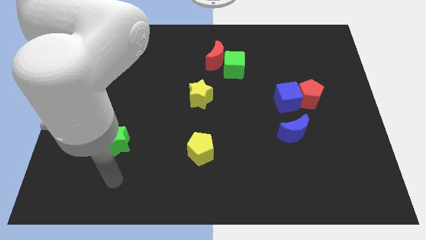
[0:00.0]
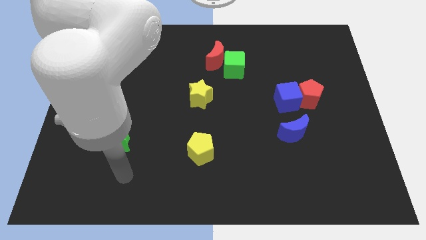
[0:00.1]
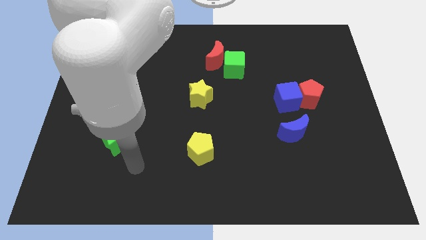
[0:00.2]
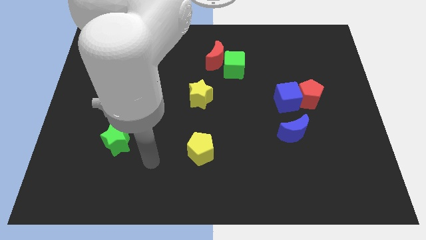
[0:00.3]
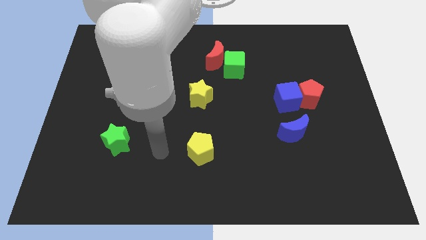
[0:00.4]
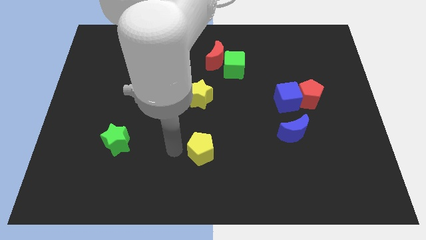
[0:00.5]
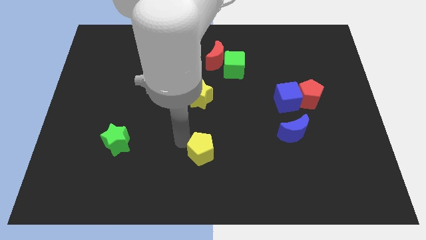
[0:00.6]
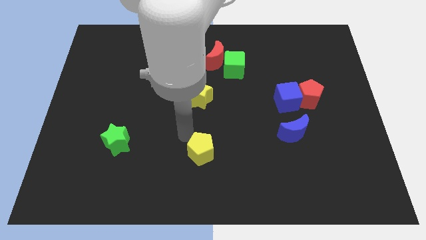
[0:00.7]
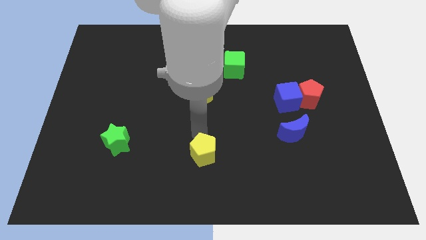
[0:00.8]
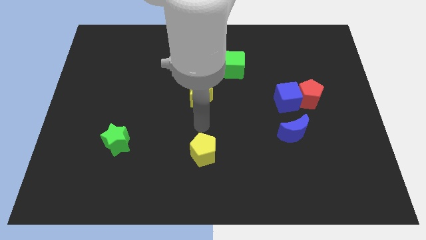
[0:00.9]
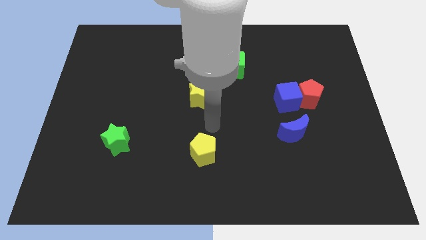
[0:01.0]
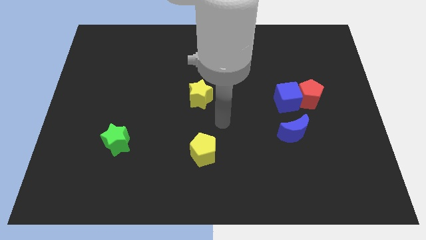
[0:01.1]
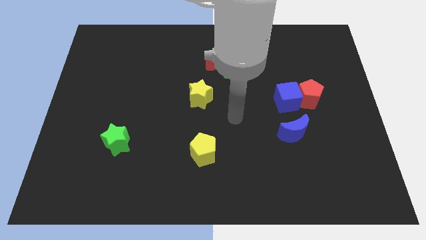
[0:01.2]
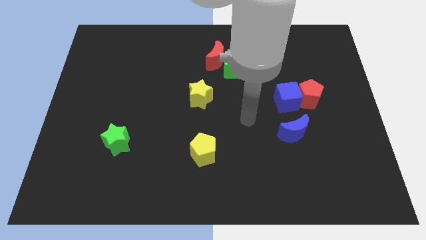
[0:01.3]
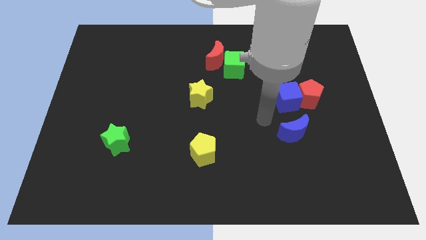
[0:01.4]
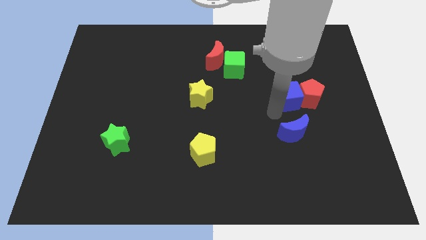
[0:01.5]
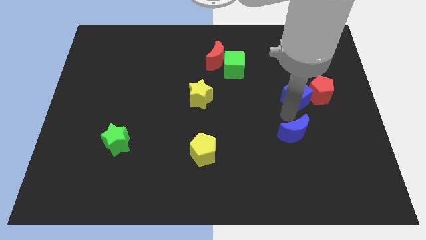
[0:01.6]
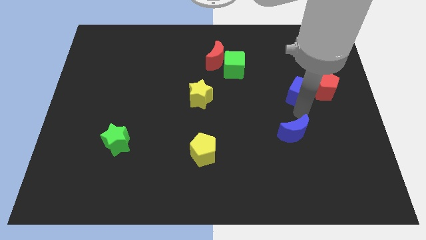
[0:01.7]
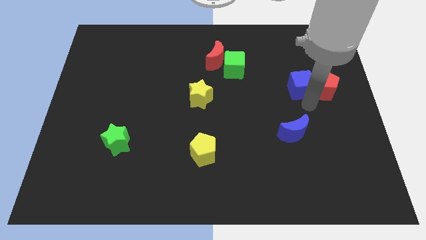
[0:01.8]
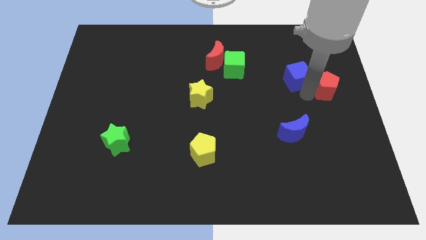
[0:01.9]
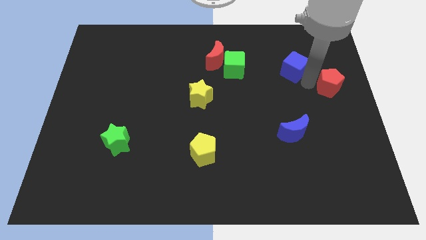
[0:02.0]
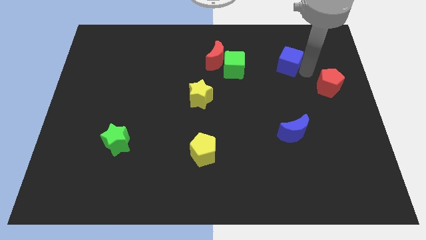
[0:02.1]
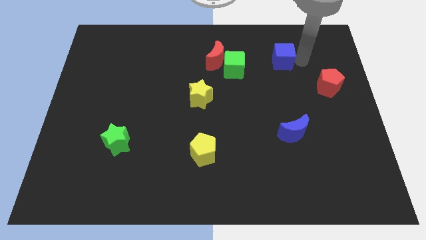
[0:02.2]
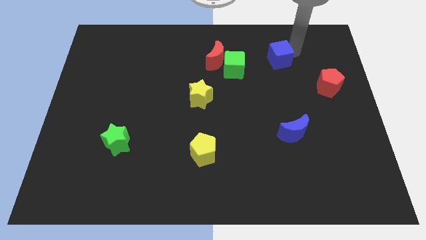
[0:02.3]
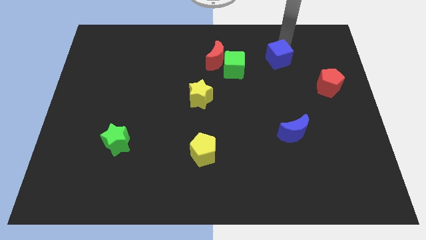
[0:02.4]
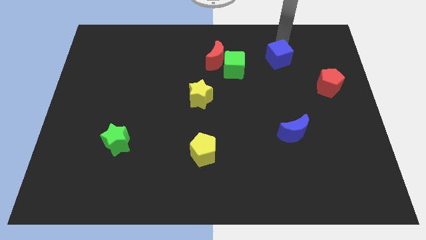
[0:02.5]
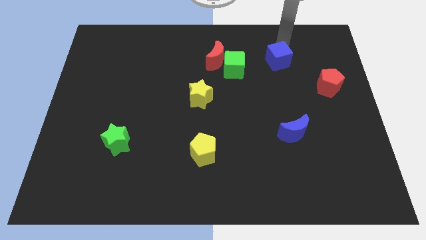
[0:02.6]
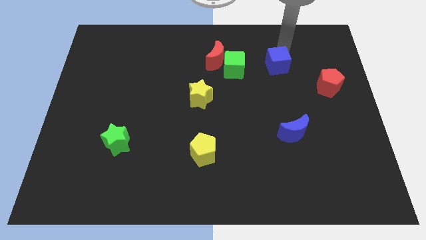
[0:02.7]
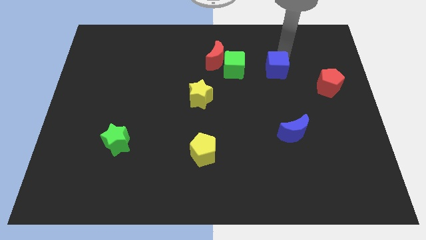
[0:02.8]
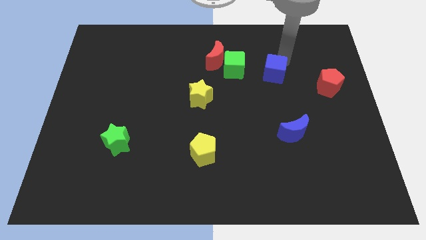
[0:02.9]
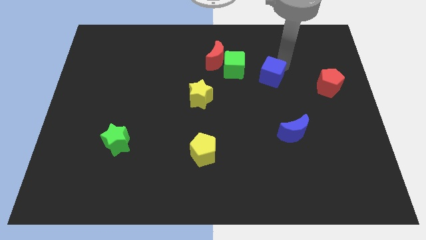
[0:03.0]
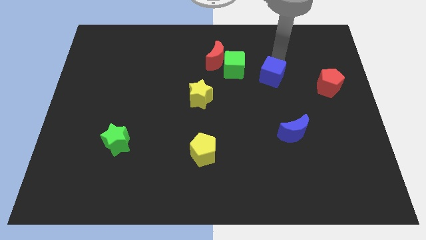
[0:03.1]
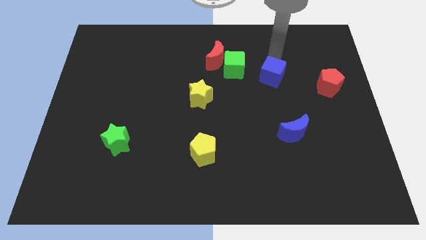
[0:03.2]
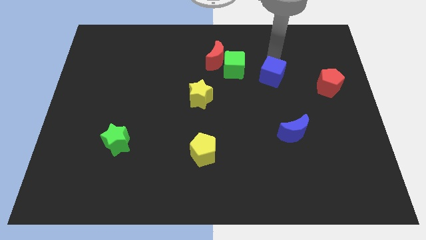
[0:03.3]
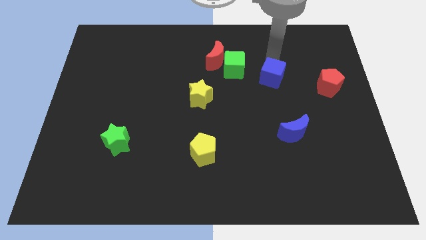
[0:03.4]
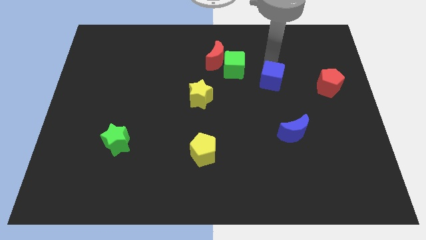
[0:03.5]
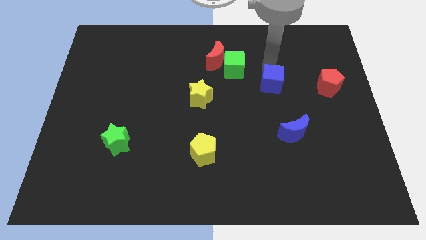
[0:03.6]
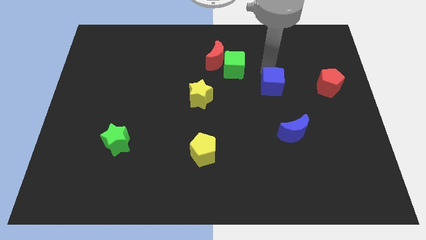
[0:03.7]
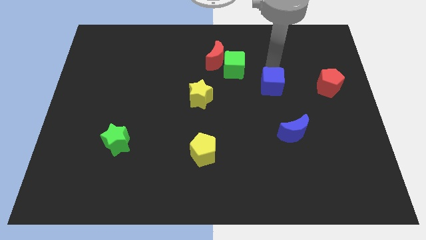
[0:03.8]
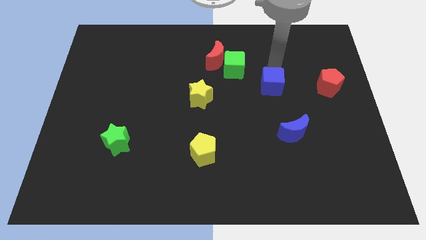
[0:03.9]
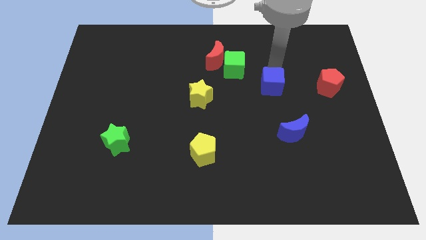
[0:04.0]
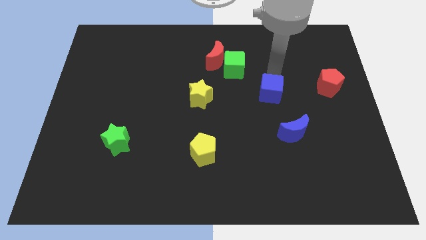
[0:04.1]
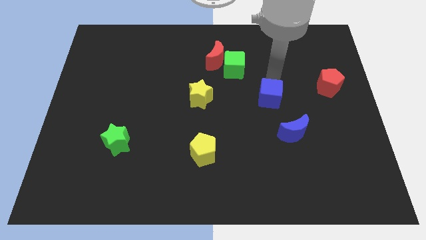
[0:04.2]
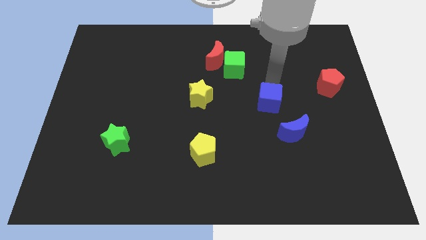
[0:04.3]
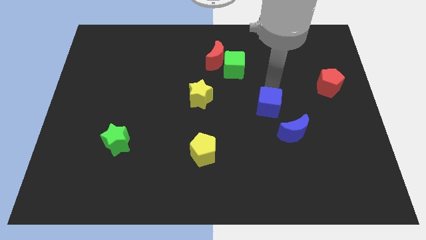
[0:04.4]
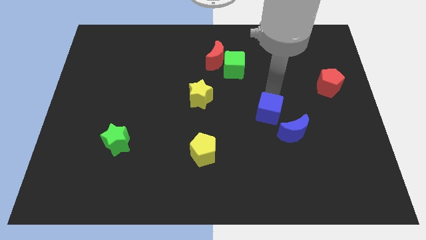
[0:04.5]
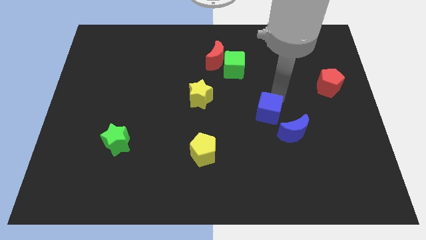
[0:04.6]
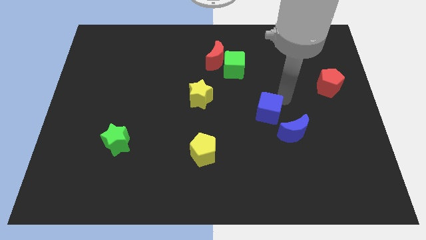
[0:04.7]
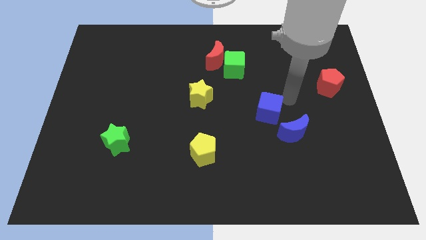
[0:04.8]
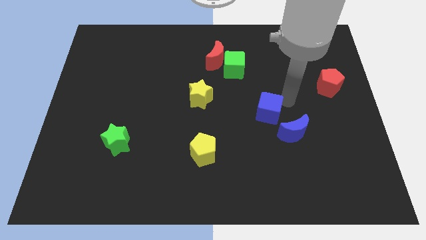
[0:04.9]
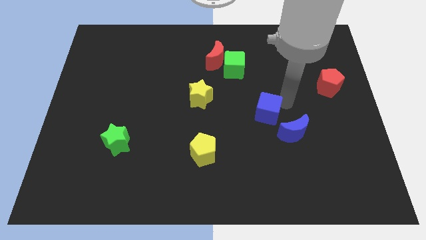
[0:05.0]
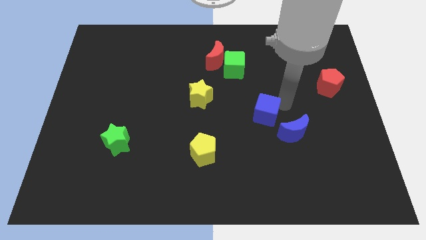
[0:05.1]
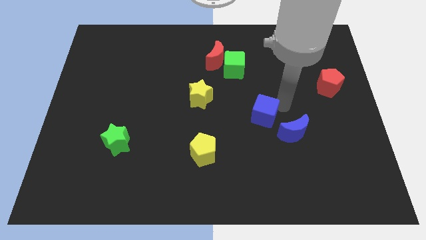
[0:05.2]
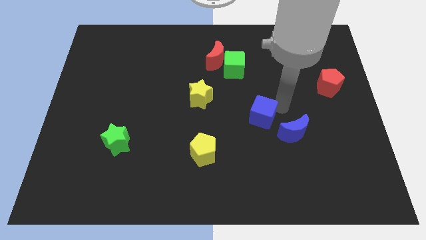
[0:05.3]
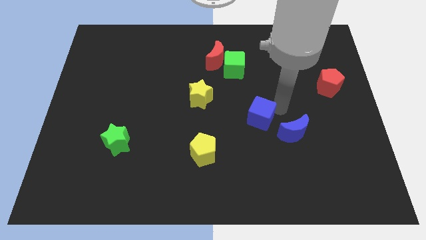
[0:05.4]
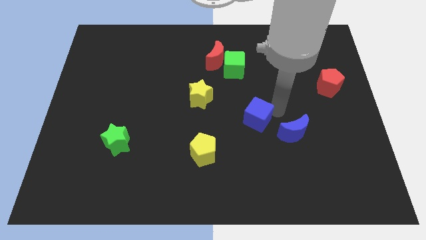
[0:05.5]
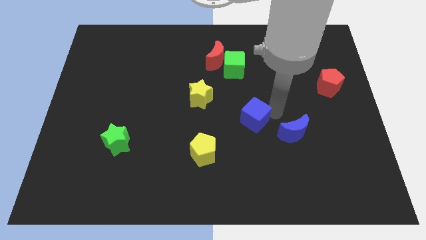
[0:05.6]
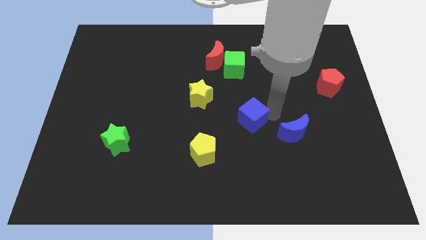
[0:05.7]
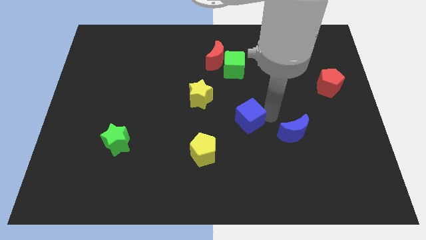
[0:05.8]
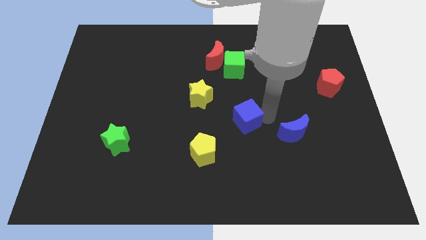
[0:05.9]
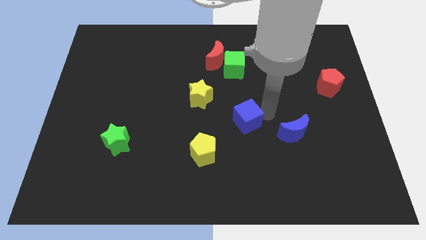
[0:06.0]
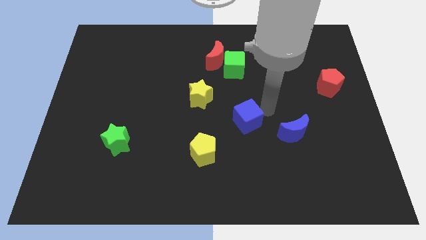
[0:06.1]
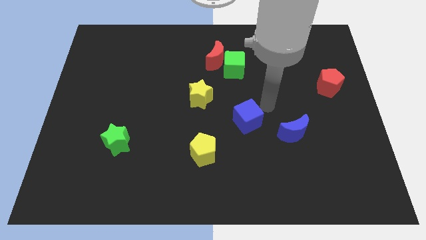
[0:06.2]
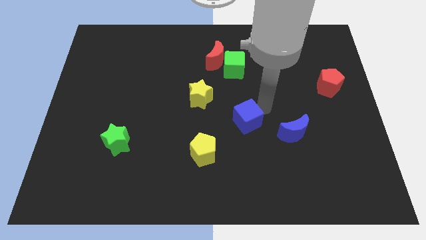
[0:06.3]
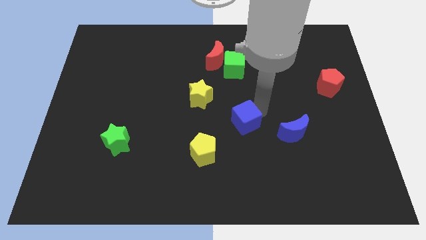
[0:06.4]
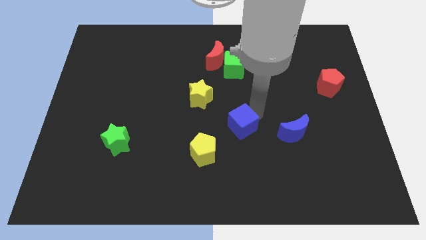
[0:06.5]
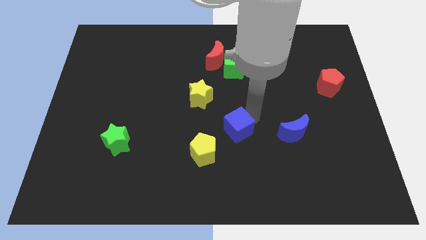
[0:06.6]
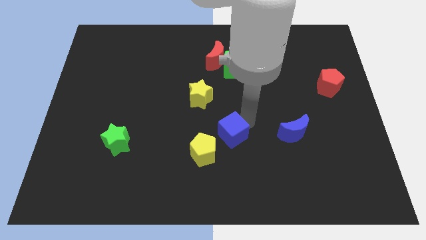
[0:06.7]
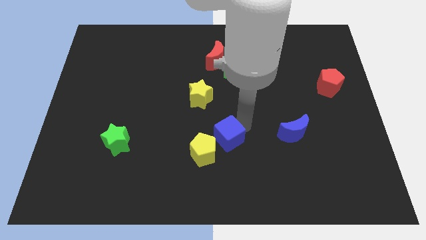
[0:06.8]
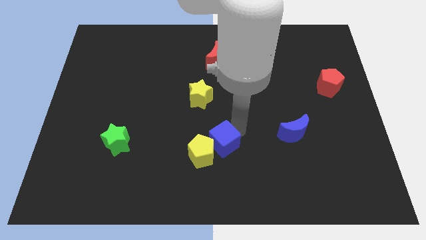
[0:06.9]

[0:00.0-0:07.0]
move the blue cube to the yellow pentagon
